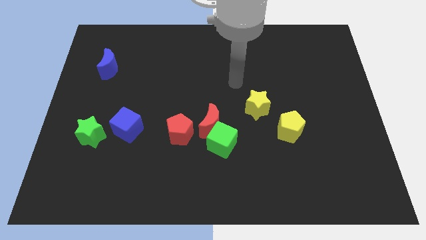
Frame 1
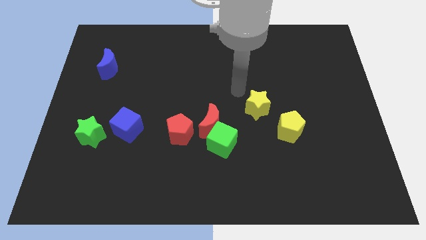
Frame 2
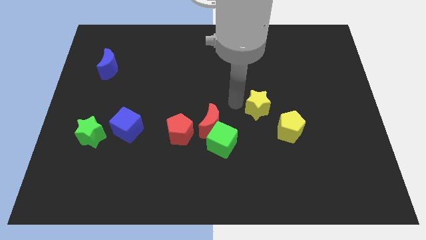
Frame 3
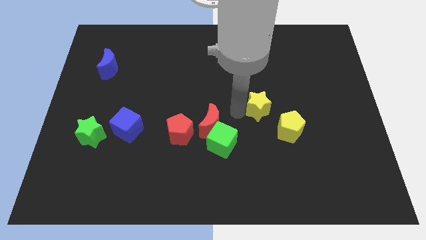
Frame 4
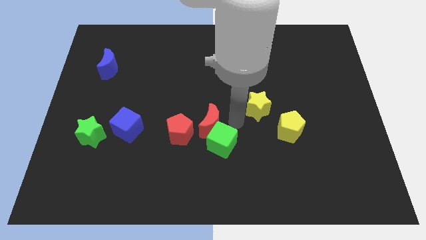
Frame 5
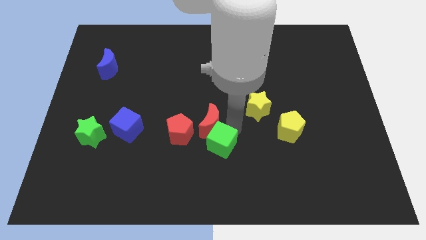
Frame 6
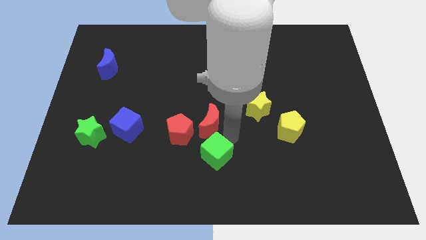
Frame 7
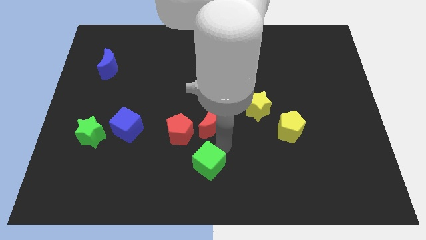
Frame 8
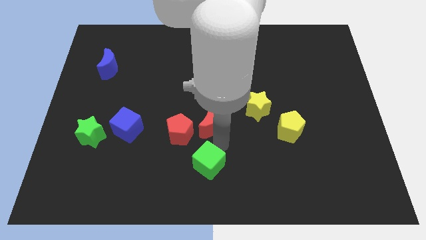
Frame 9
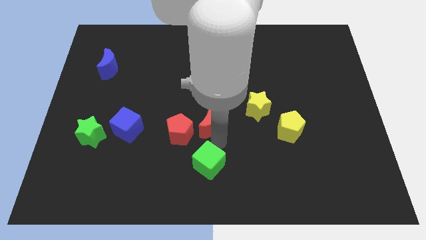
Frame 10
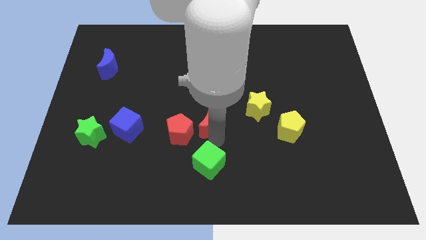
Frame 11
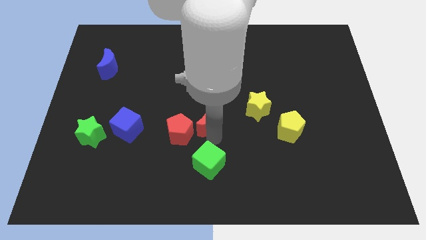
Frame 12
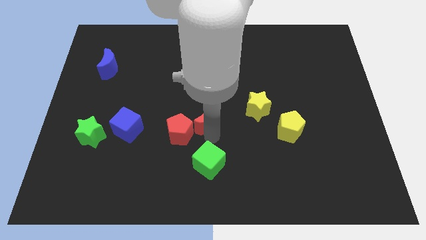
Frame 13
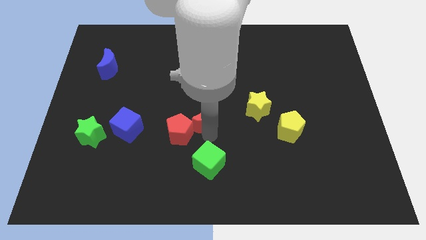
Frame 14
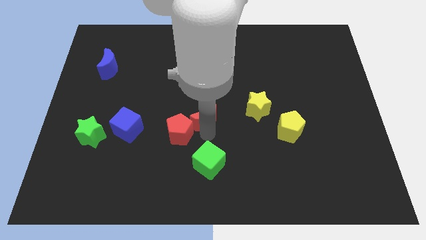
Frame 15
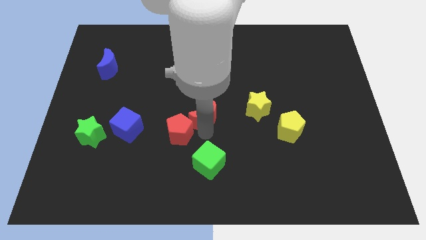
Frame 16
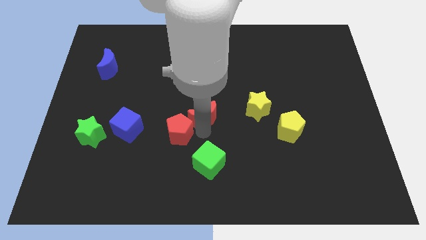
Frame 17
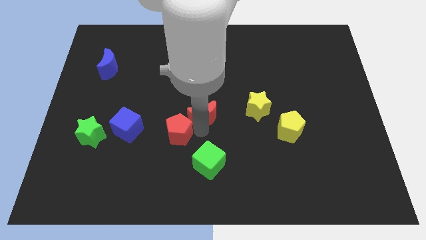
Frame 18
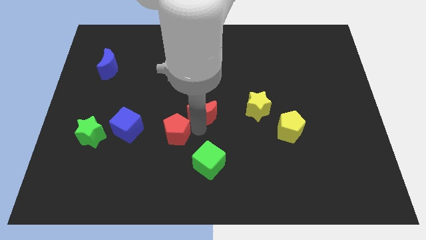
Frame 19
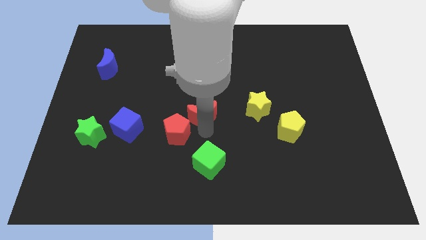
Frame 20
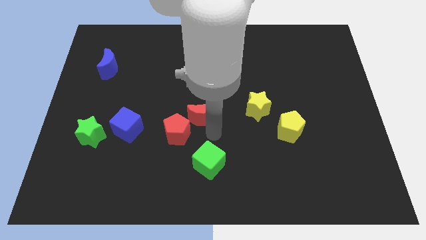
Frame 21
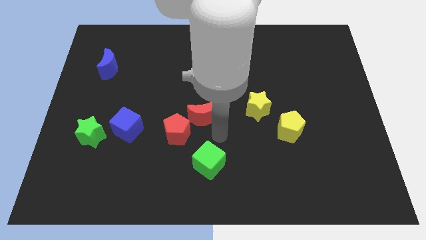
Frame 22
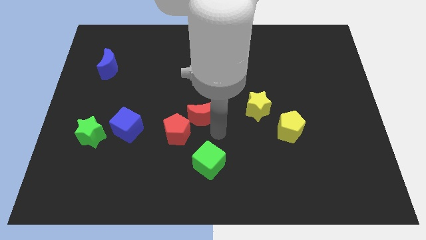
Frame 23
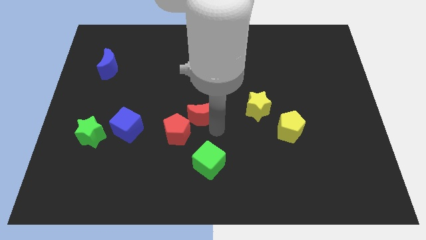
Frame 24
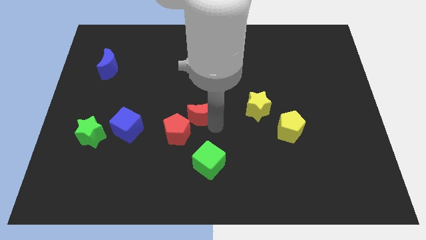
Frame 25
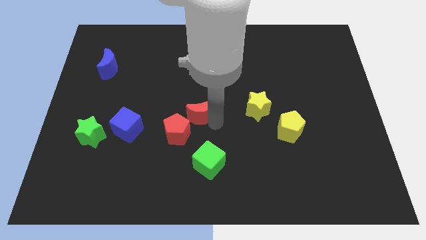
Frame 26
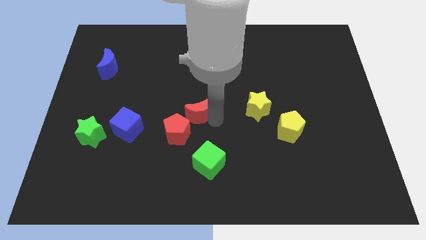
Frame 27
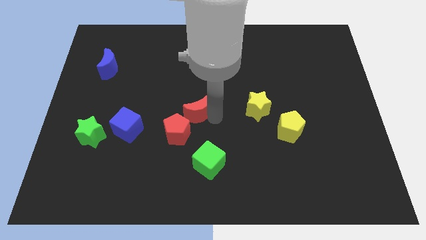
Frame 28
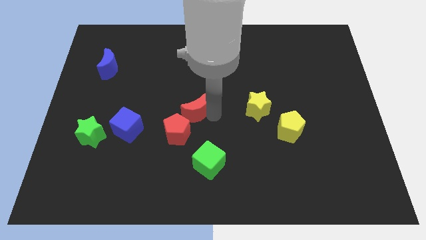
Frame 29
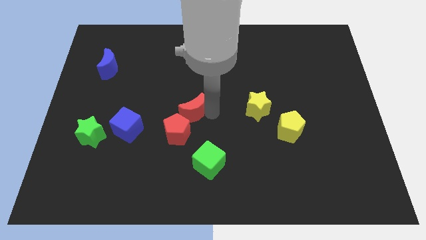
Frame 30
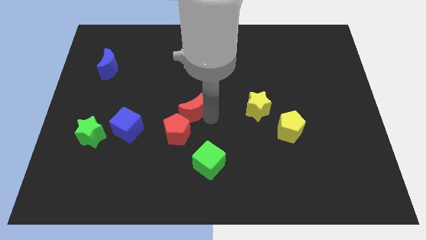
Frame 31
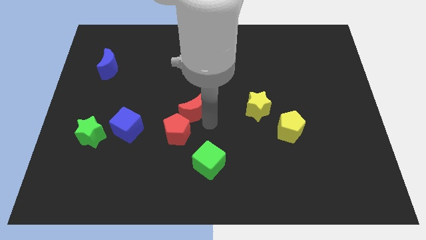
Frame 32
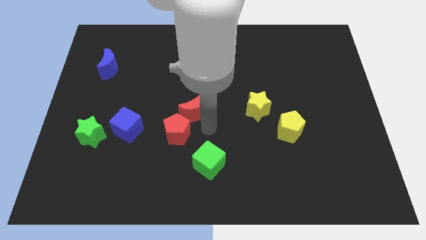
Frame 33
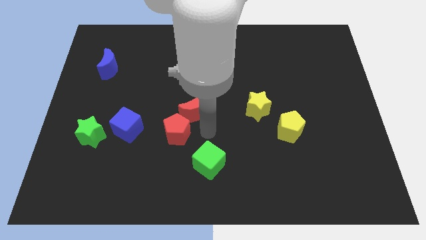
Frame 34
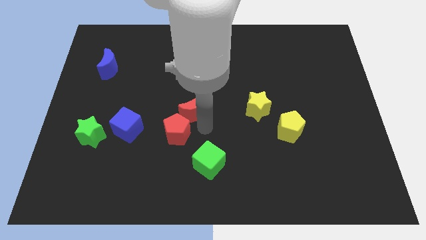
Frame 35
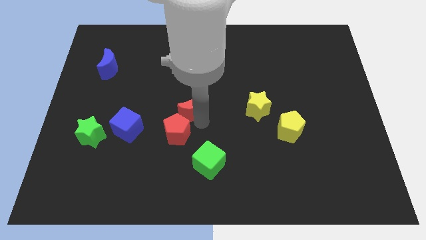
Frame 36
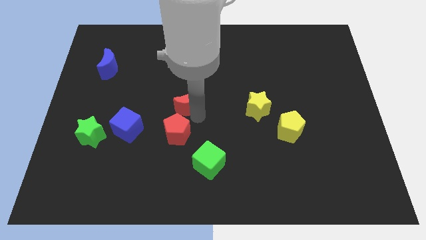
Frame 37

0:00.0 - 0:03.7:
slightly move the red moon up and to the left diagonally

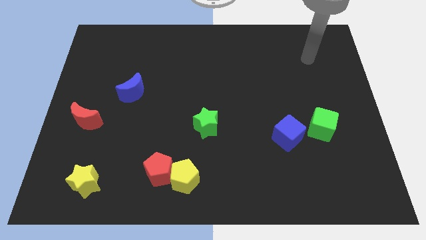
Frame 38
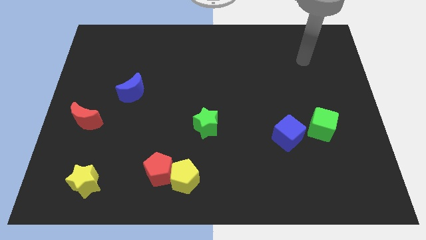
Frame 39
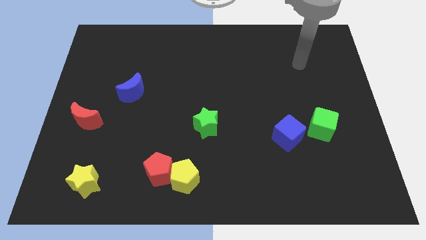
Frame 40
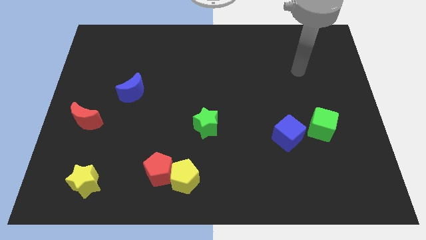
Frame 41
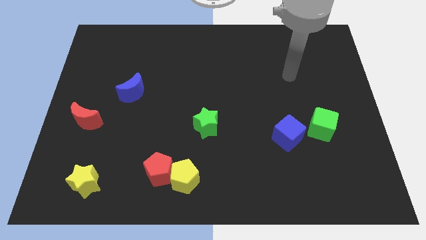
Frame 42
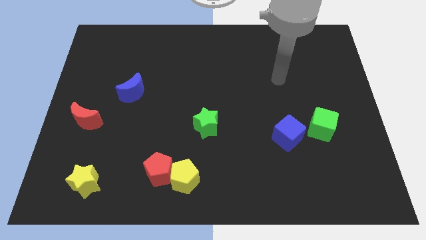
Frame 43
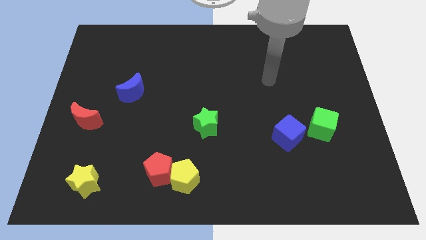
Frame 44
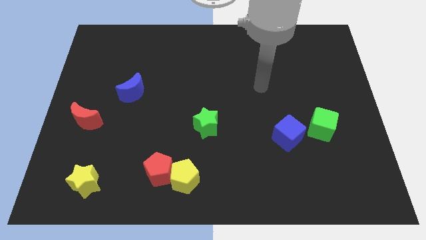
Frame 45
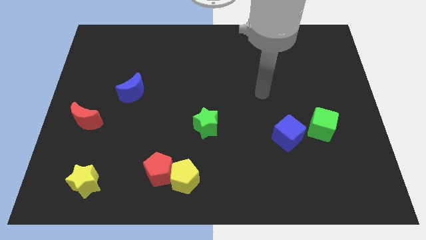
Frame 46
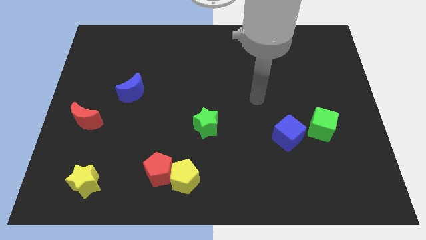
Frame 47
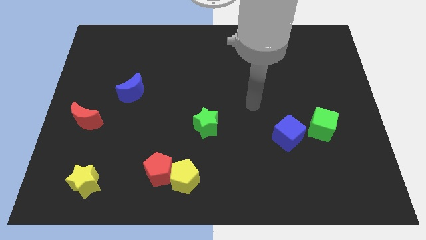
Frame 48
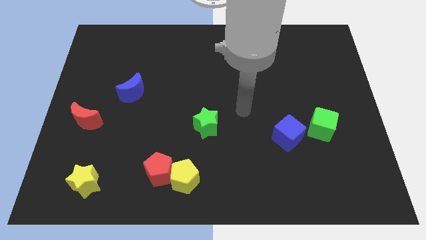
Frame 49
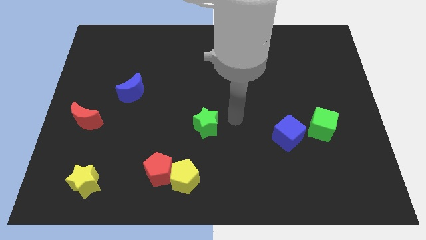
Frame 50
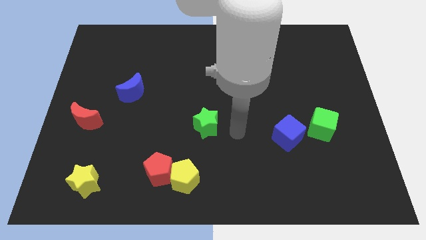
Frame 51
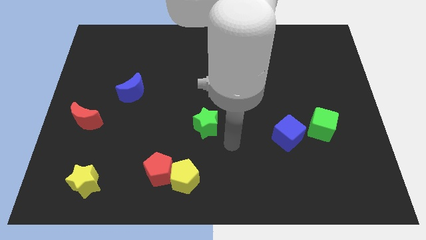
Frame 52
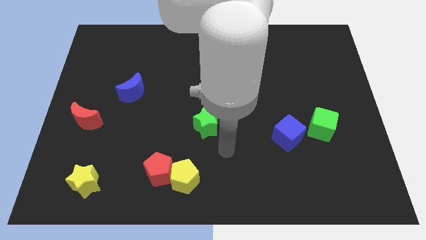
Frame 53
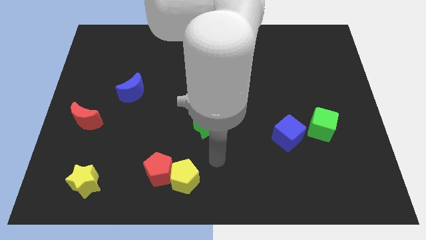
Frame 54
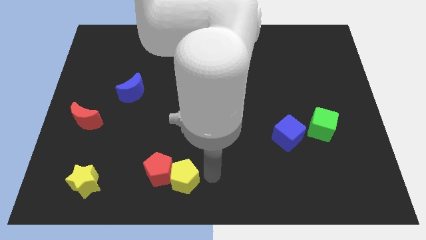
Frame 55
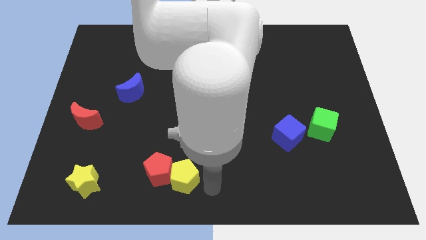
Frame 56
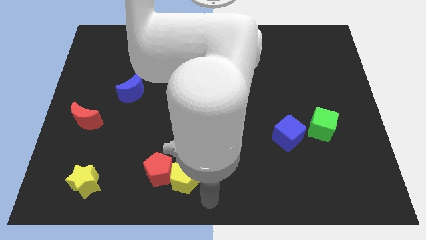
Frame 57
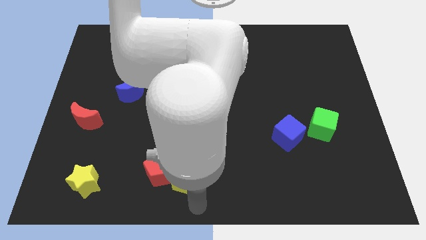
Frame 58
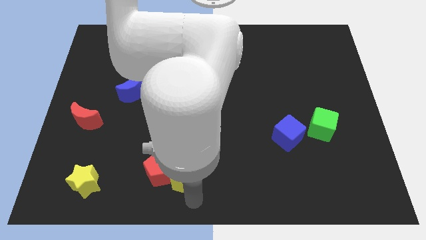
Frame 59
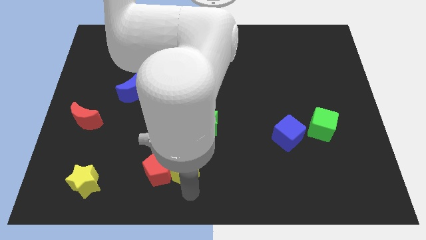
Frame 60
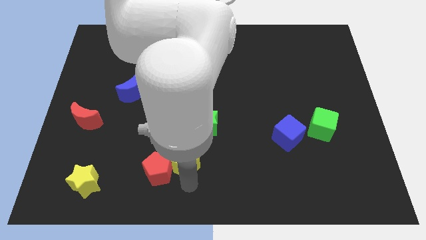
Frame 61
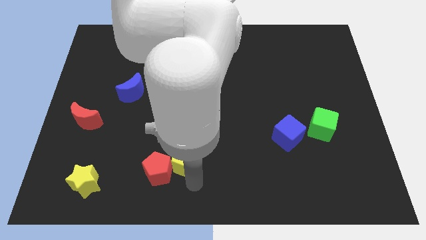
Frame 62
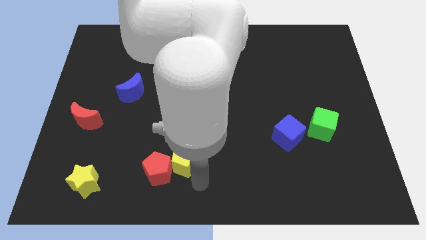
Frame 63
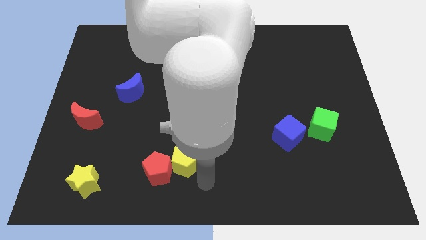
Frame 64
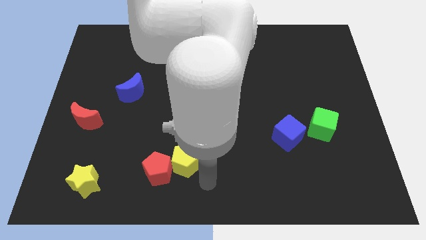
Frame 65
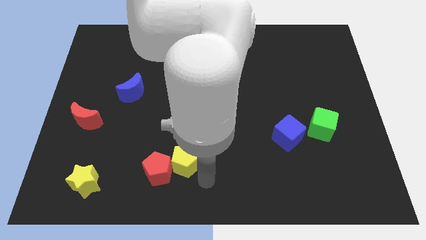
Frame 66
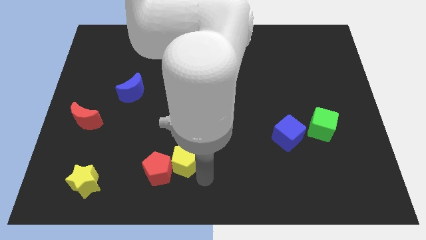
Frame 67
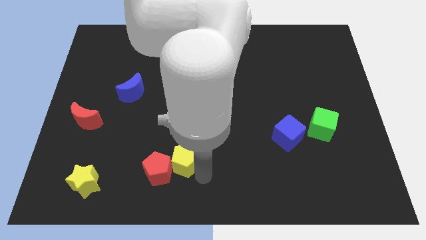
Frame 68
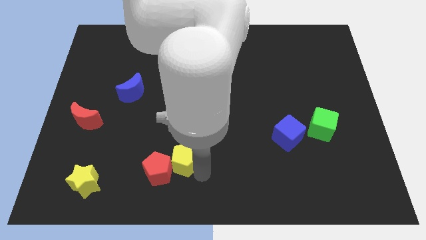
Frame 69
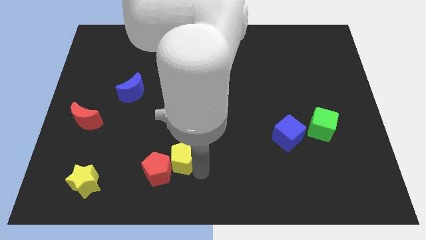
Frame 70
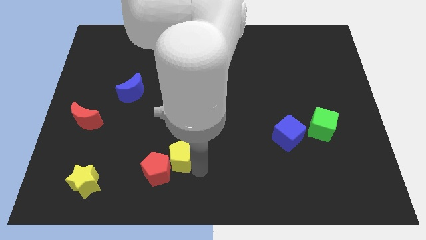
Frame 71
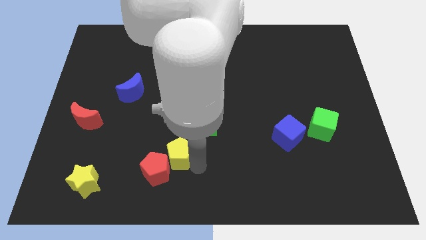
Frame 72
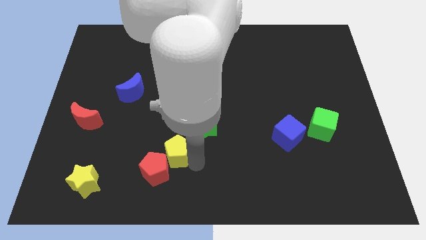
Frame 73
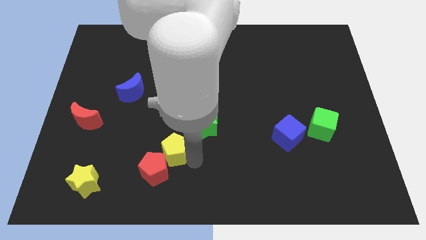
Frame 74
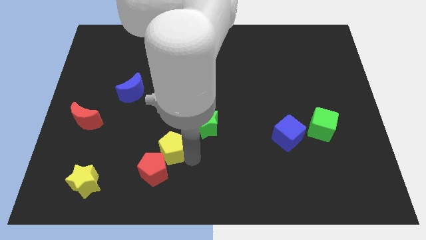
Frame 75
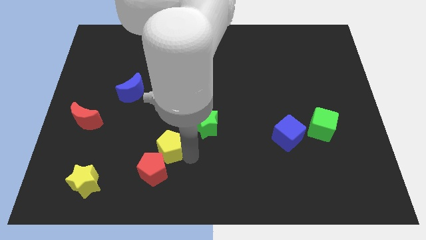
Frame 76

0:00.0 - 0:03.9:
push the yellow pentagon a little upwards and left diagonally

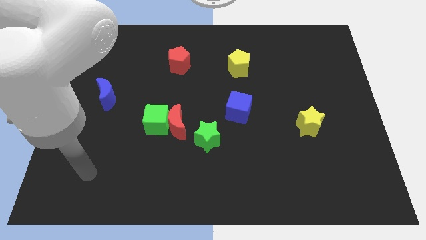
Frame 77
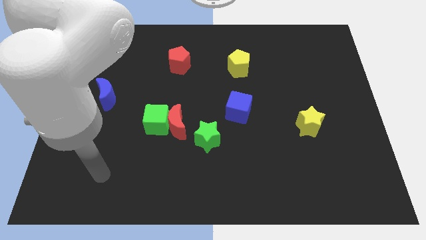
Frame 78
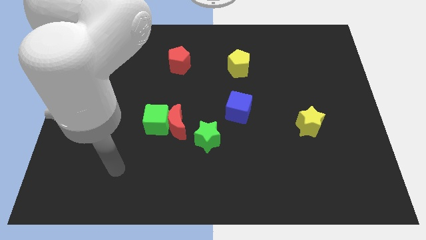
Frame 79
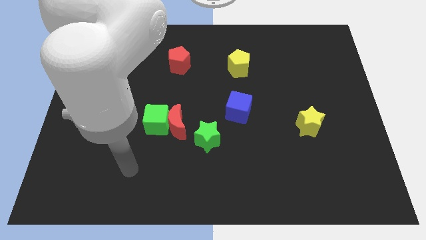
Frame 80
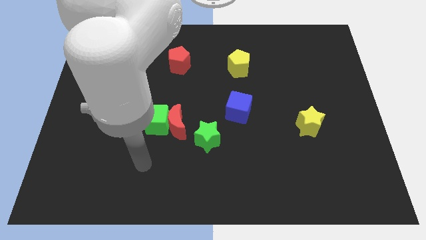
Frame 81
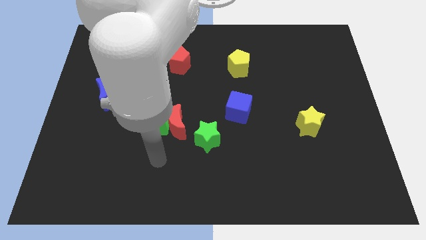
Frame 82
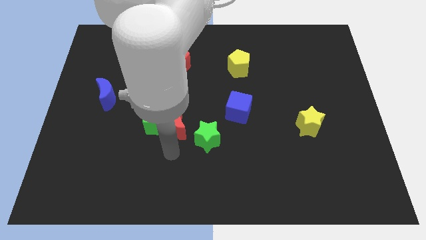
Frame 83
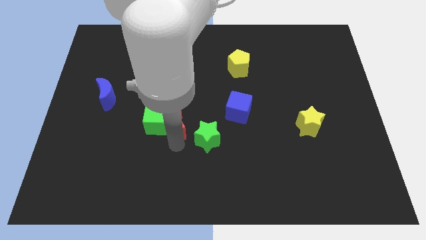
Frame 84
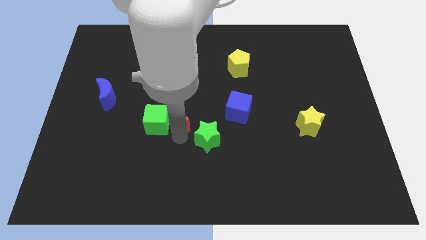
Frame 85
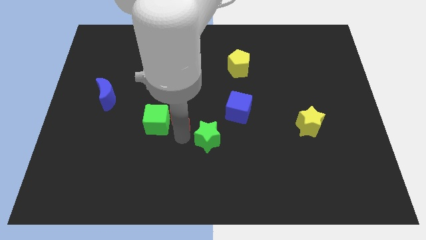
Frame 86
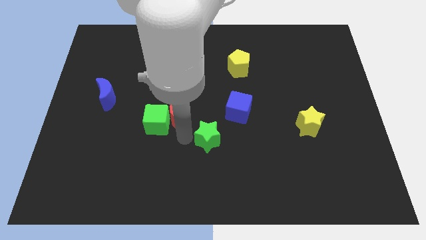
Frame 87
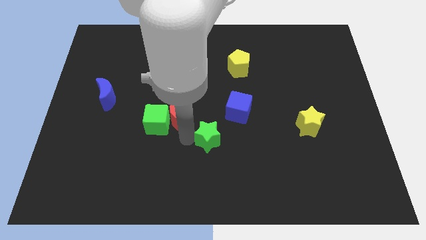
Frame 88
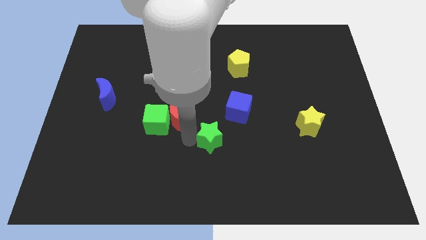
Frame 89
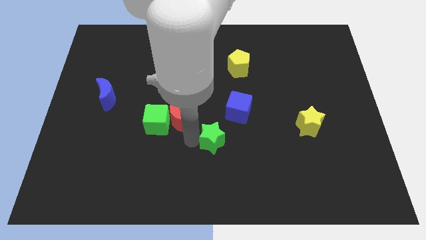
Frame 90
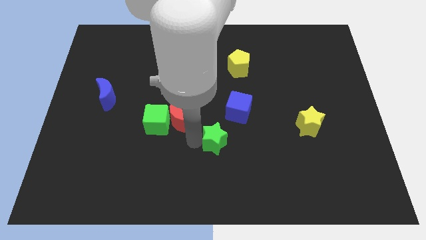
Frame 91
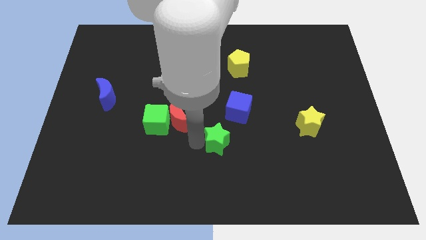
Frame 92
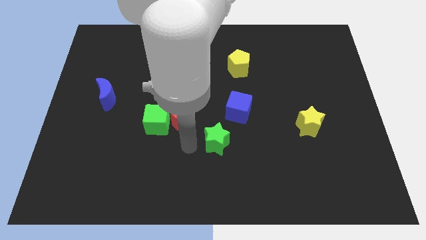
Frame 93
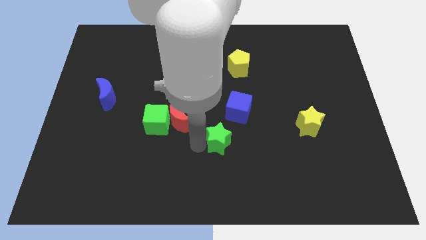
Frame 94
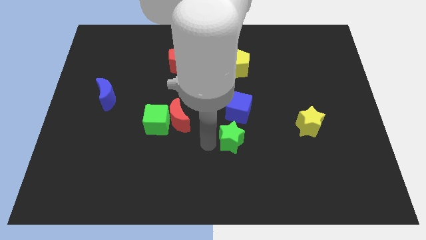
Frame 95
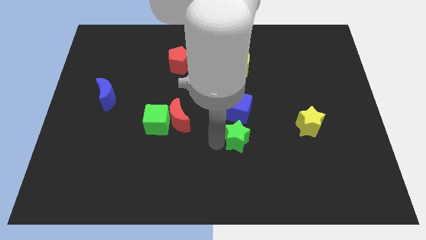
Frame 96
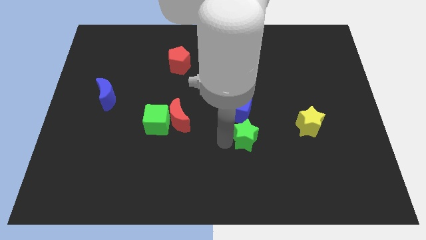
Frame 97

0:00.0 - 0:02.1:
move the green star a bit to the right
